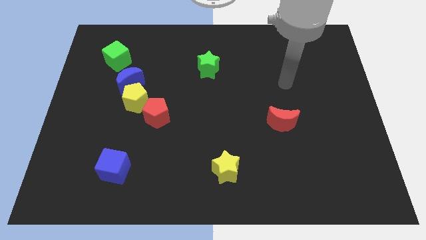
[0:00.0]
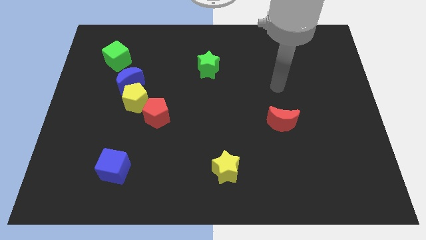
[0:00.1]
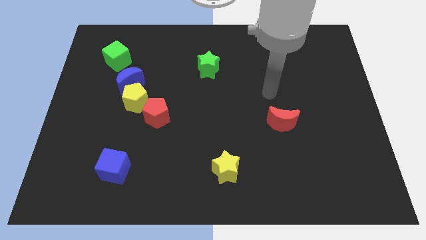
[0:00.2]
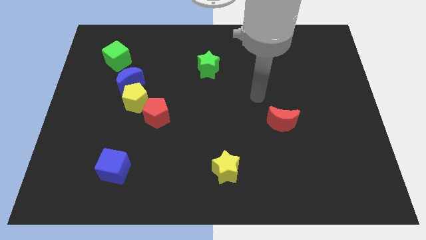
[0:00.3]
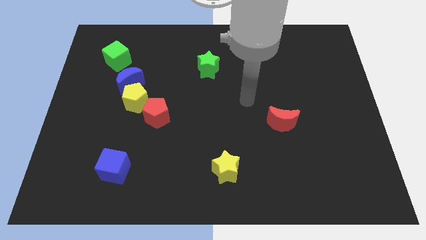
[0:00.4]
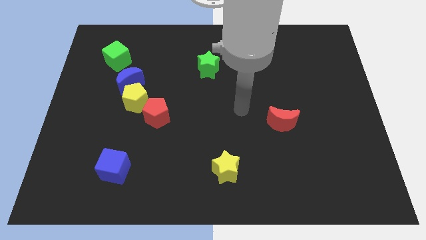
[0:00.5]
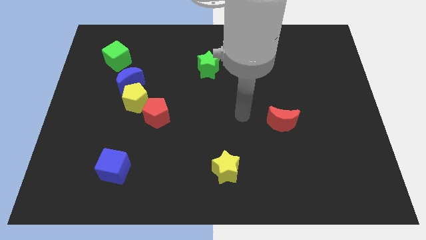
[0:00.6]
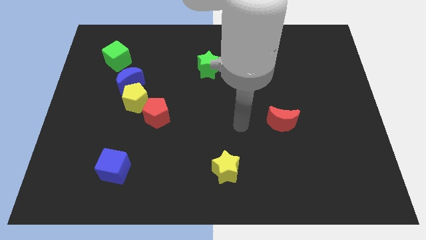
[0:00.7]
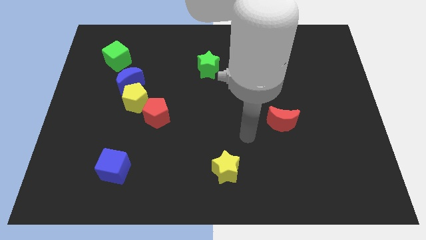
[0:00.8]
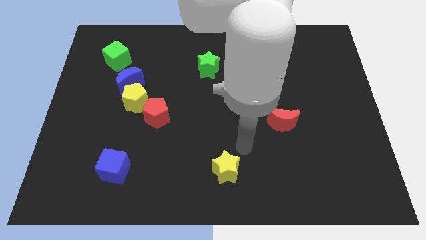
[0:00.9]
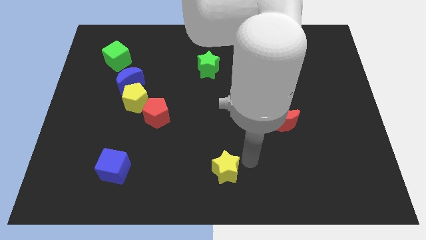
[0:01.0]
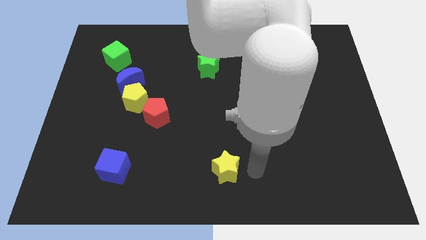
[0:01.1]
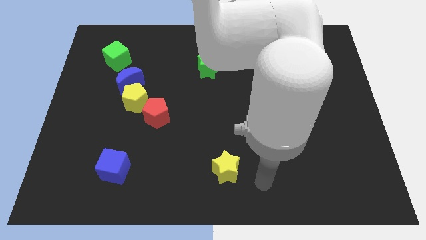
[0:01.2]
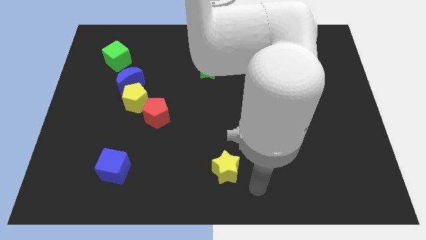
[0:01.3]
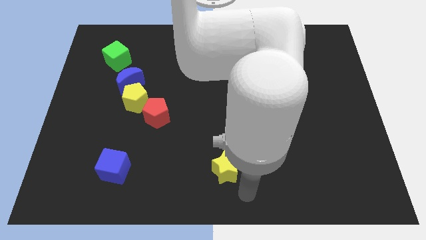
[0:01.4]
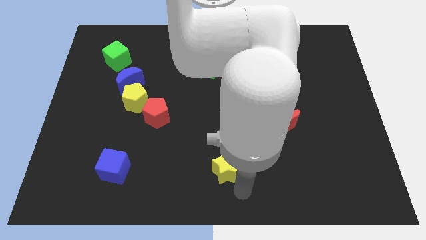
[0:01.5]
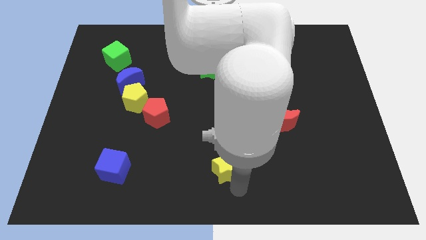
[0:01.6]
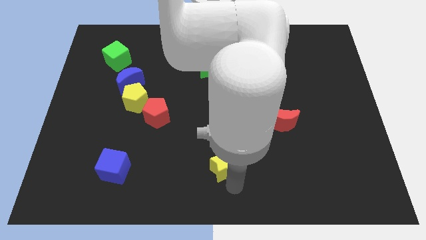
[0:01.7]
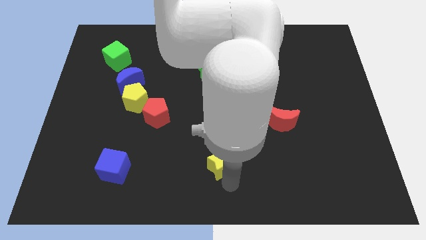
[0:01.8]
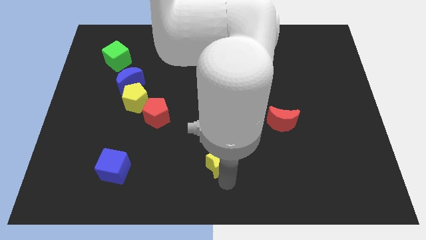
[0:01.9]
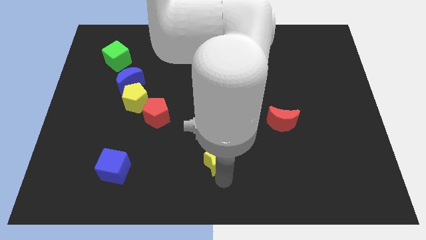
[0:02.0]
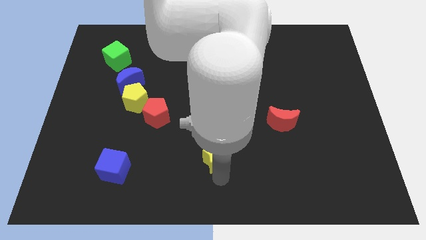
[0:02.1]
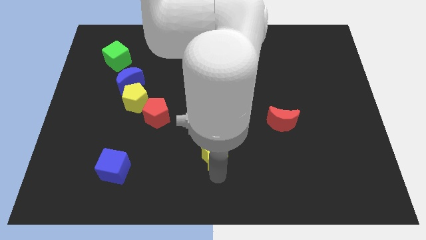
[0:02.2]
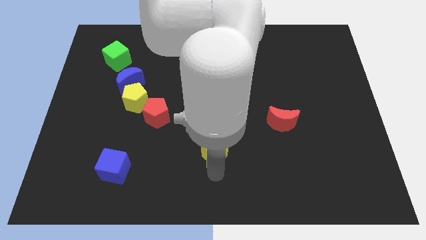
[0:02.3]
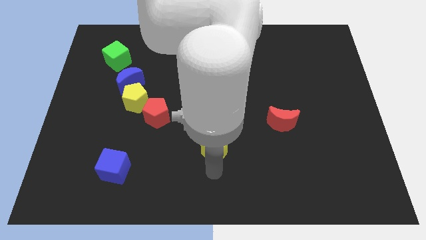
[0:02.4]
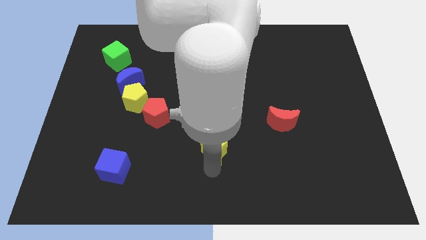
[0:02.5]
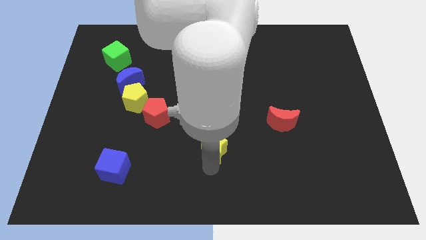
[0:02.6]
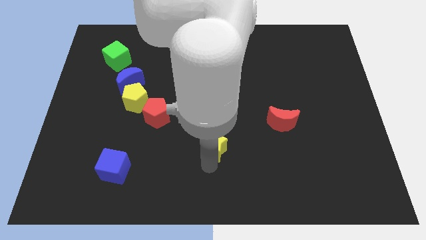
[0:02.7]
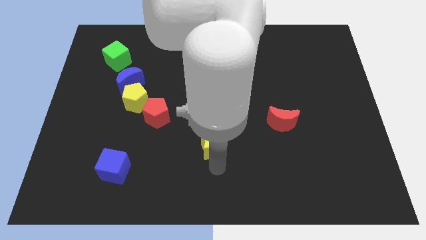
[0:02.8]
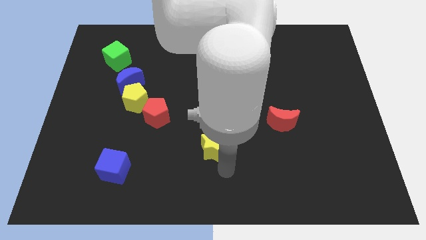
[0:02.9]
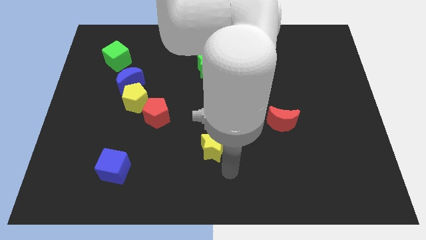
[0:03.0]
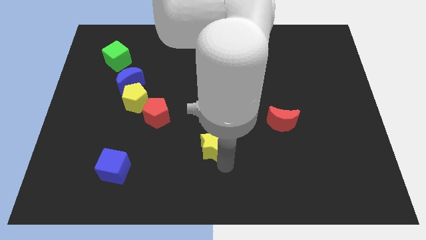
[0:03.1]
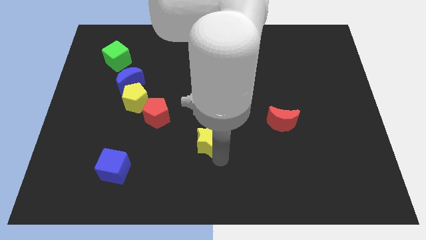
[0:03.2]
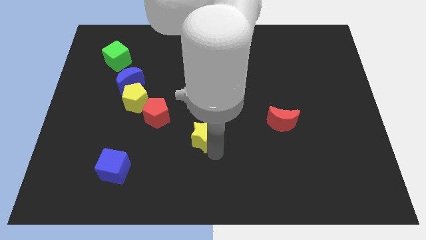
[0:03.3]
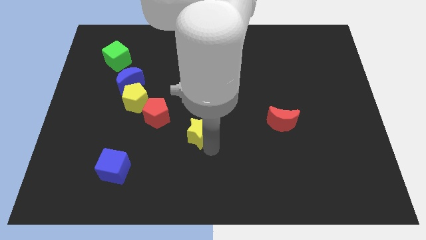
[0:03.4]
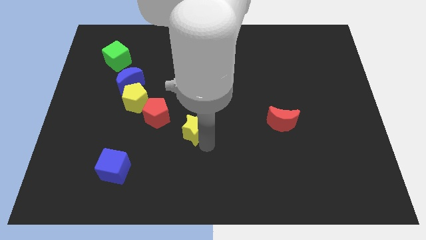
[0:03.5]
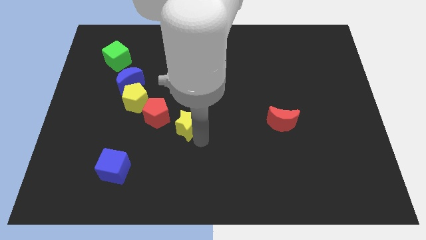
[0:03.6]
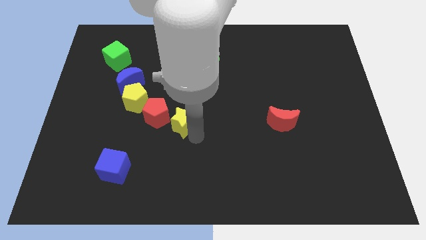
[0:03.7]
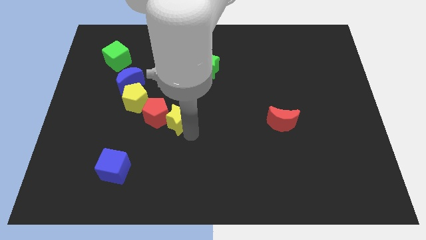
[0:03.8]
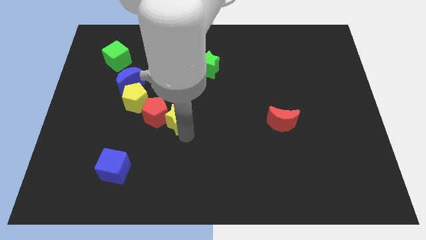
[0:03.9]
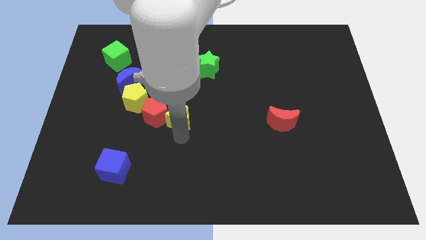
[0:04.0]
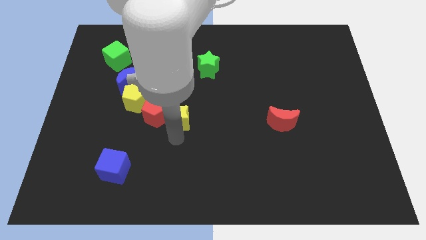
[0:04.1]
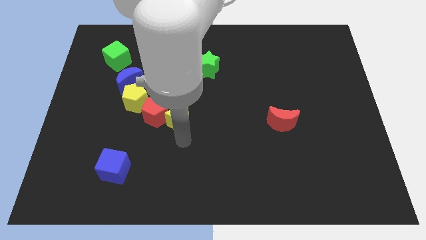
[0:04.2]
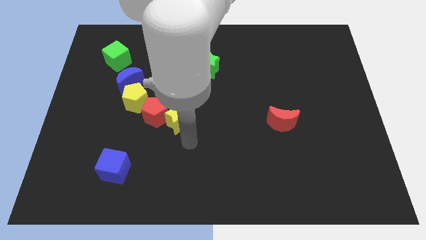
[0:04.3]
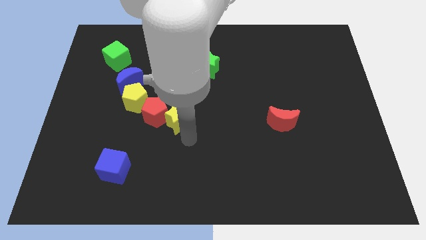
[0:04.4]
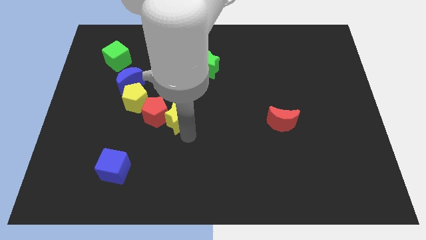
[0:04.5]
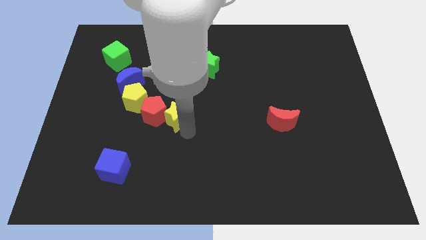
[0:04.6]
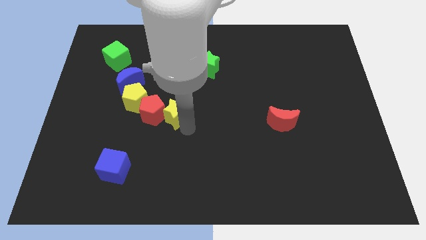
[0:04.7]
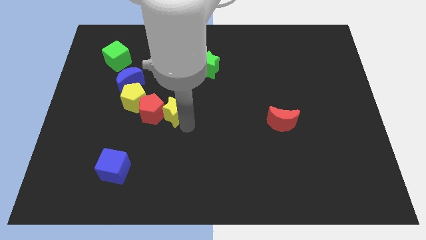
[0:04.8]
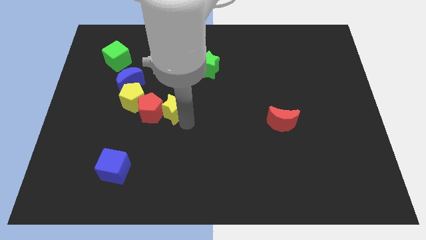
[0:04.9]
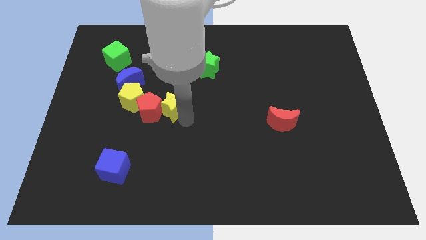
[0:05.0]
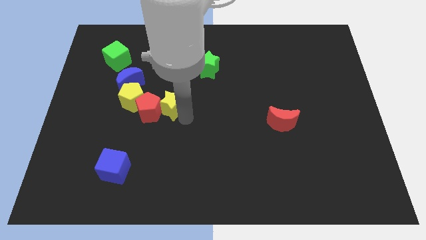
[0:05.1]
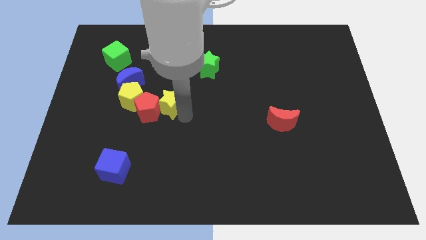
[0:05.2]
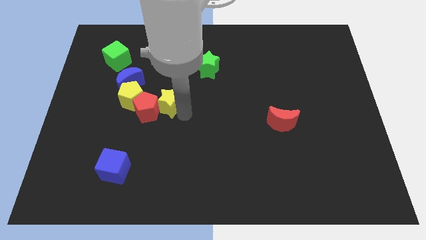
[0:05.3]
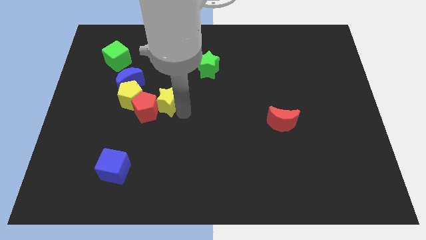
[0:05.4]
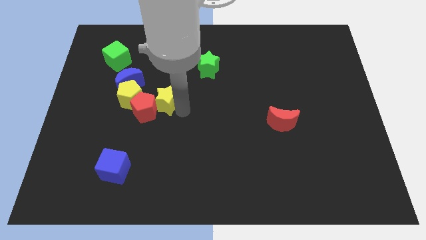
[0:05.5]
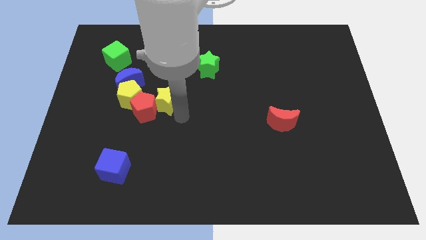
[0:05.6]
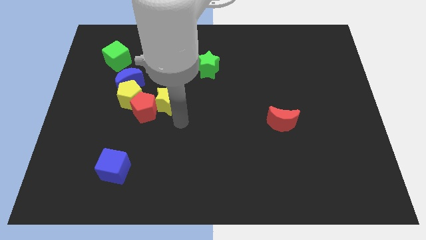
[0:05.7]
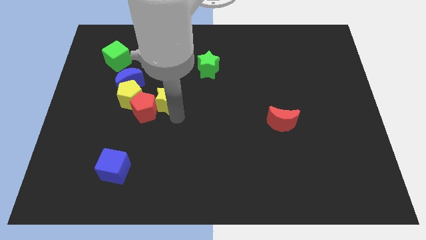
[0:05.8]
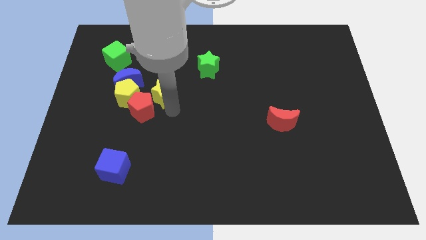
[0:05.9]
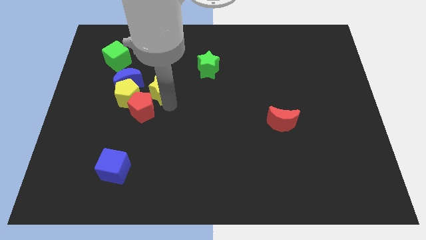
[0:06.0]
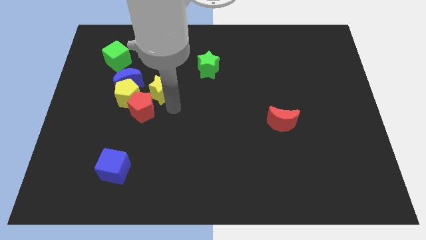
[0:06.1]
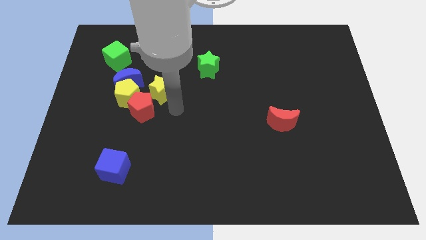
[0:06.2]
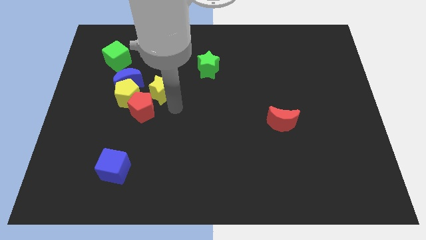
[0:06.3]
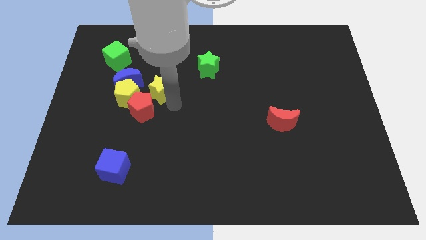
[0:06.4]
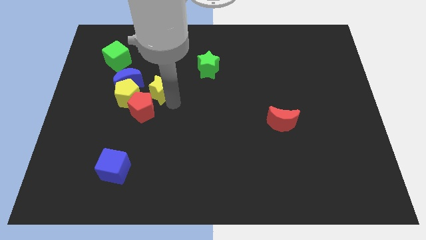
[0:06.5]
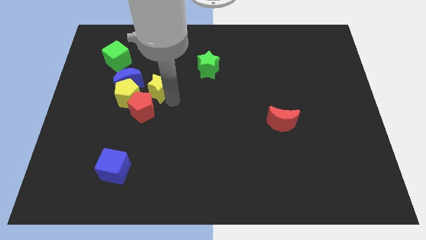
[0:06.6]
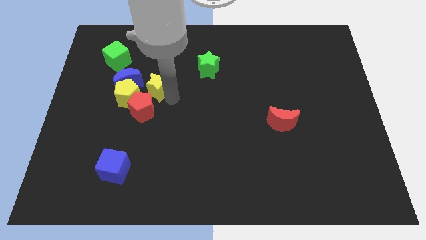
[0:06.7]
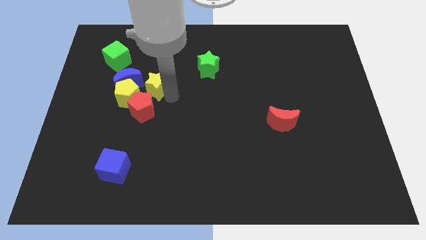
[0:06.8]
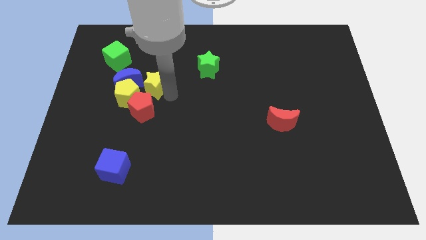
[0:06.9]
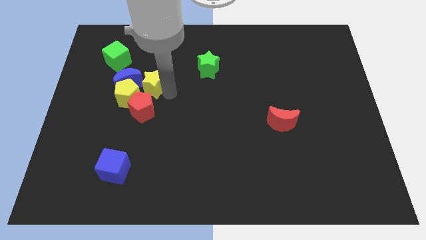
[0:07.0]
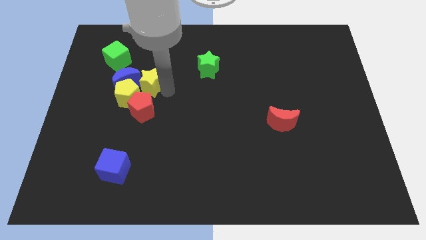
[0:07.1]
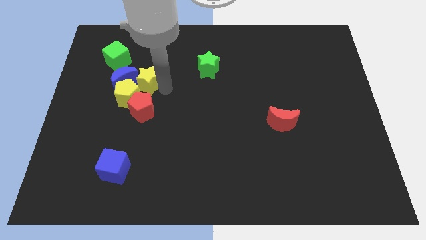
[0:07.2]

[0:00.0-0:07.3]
put the yellow star to the top side of the yellow pentagon
